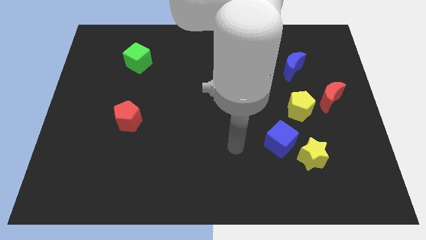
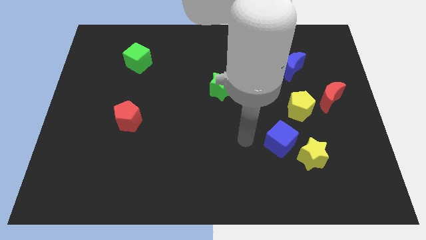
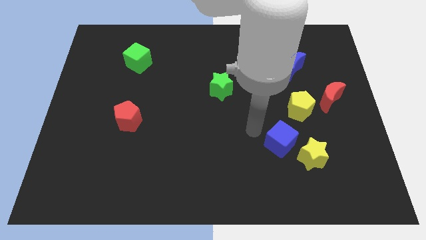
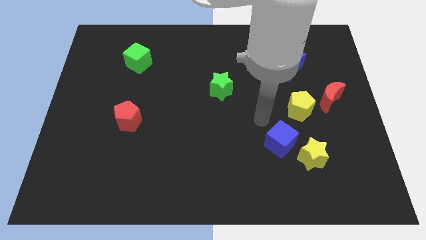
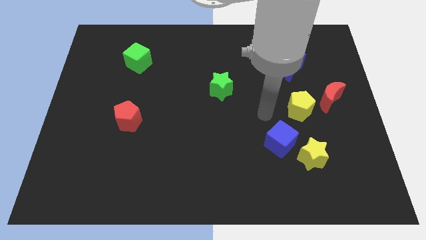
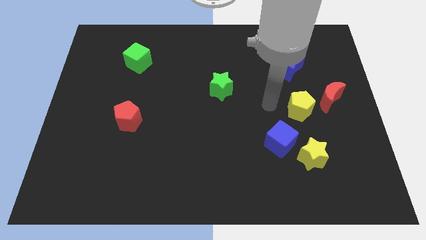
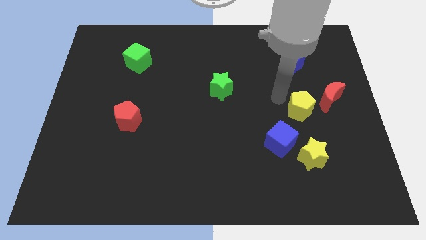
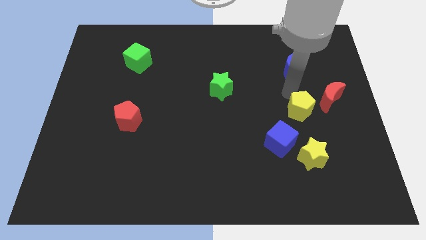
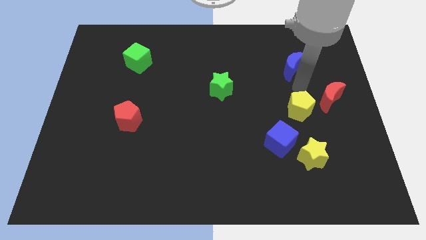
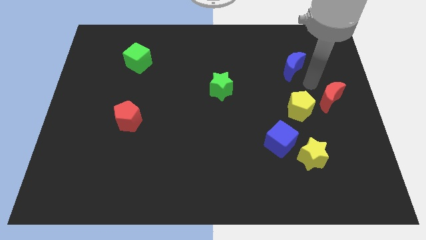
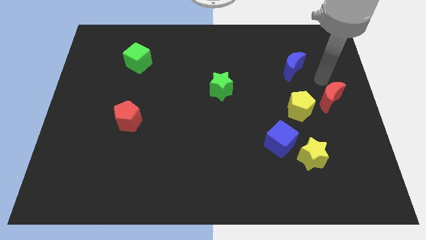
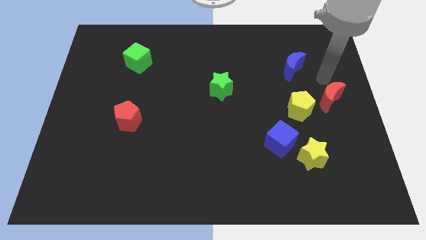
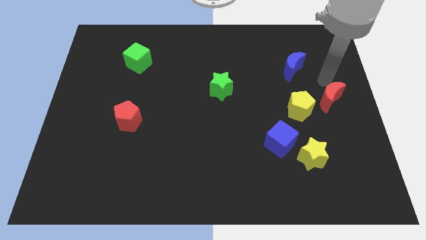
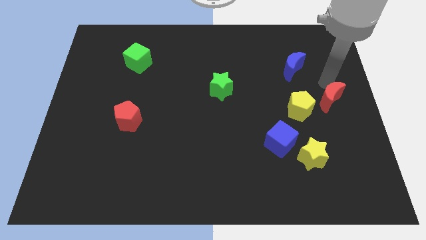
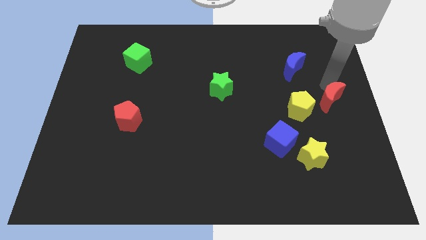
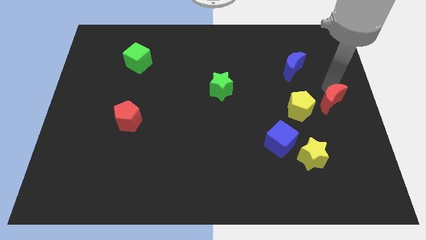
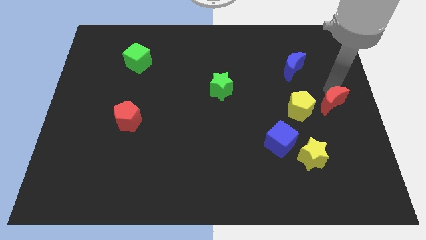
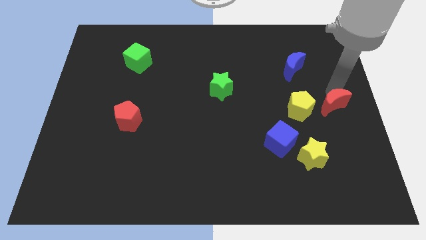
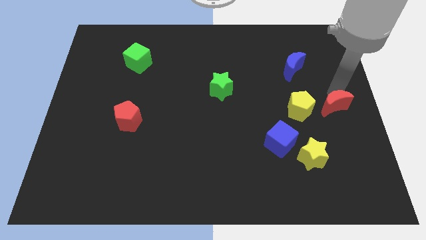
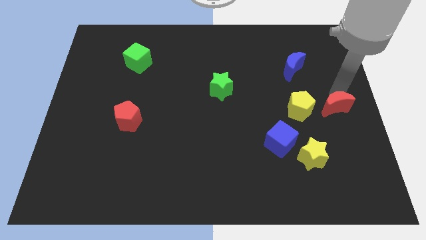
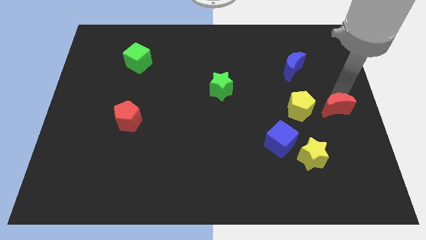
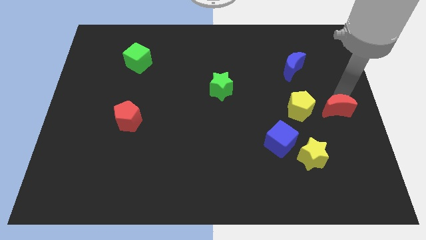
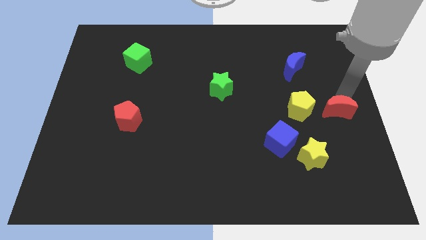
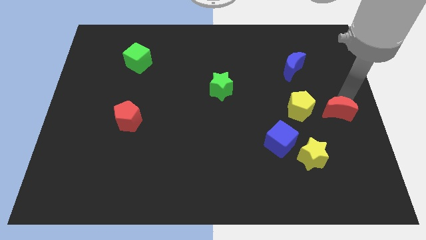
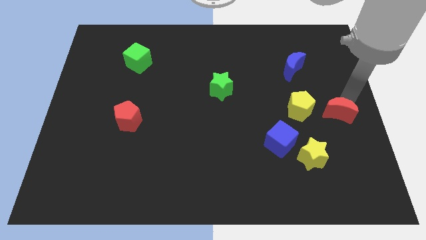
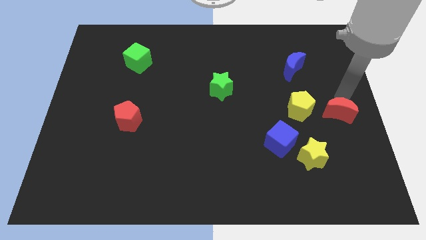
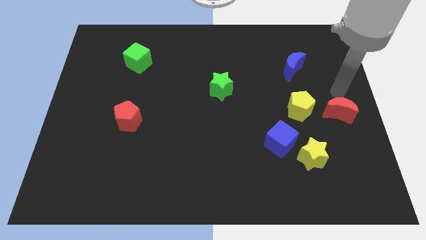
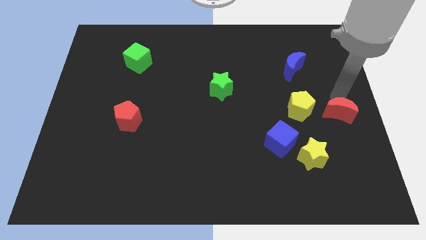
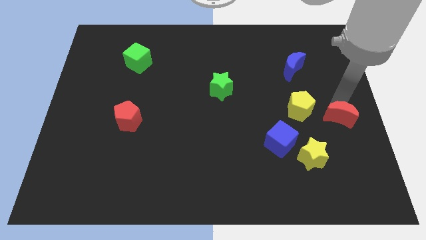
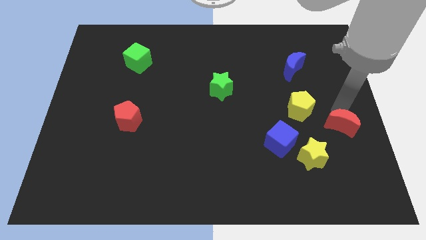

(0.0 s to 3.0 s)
slightly slide the red moon downwards

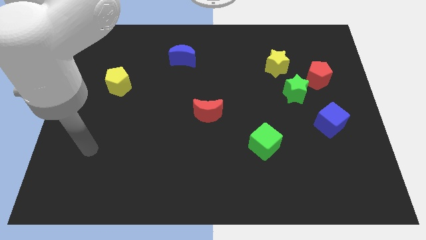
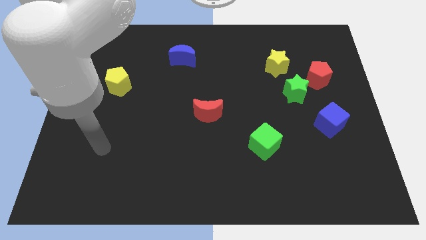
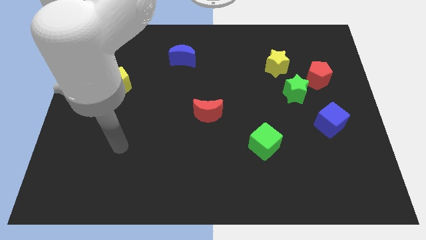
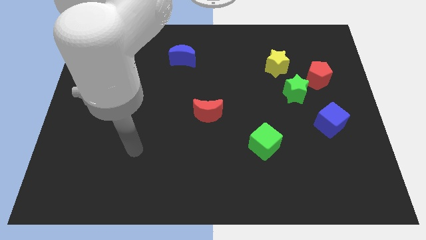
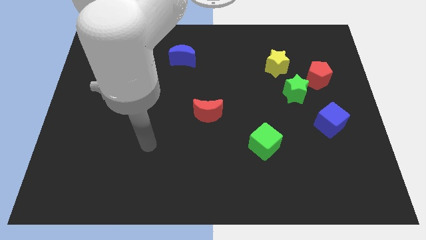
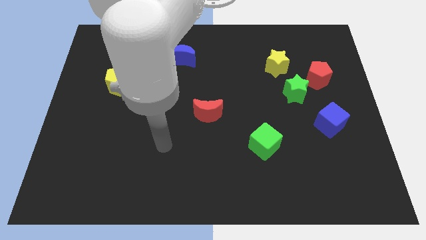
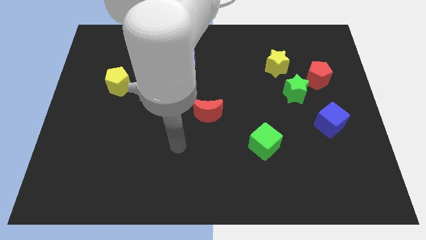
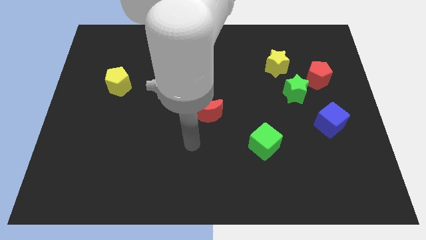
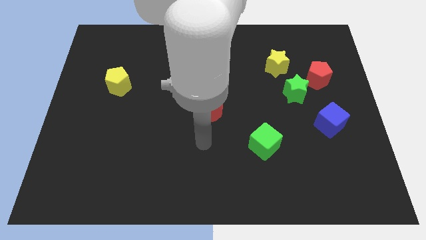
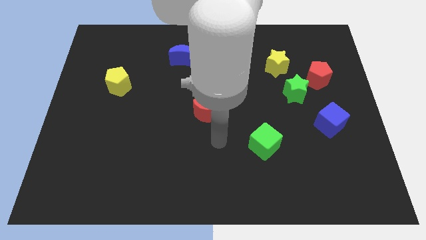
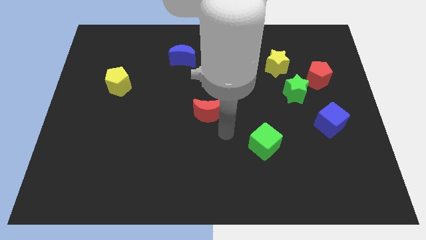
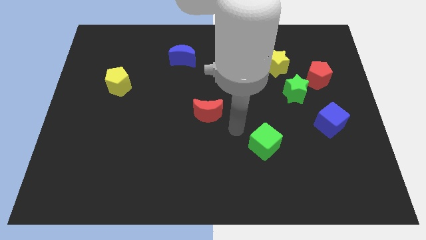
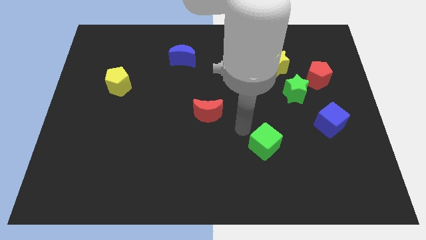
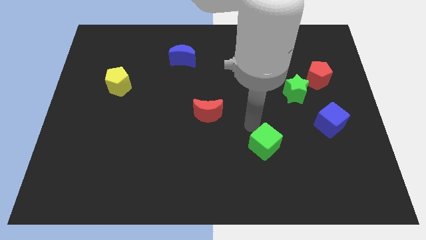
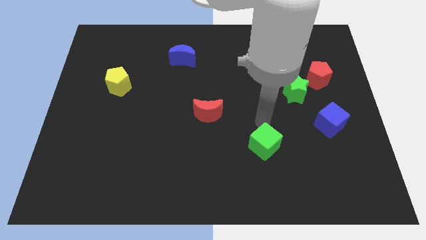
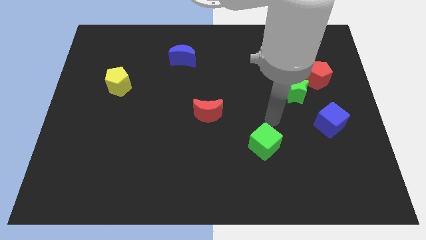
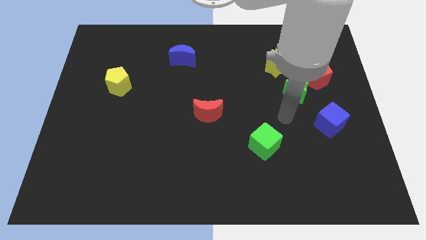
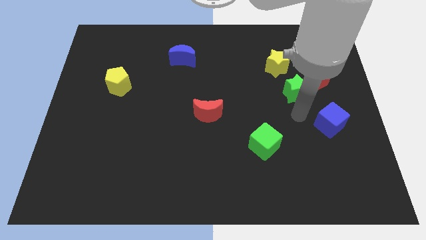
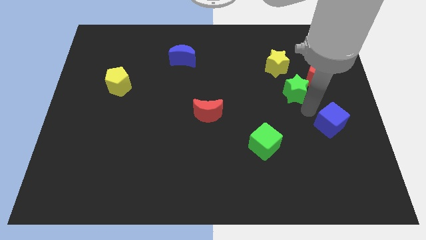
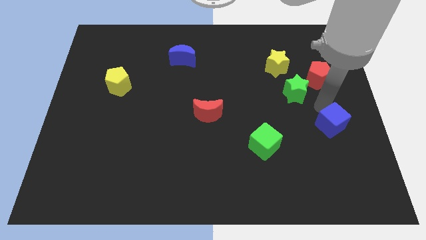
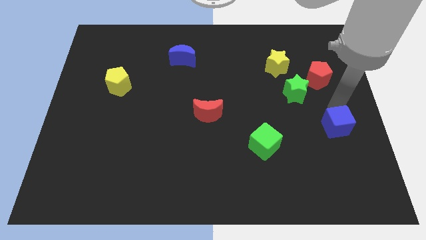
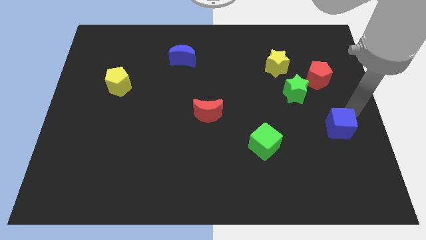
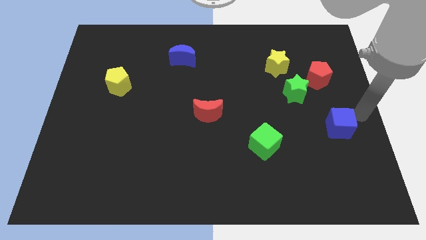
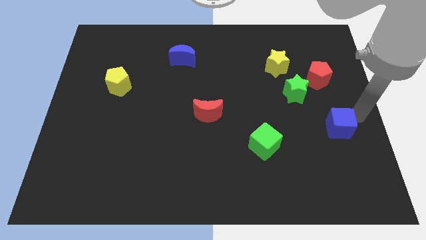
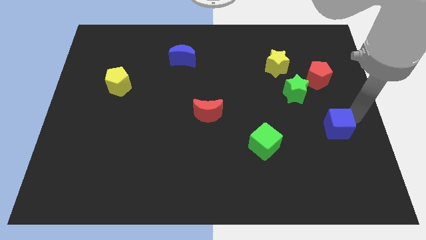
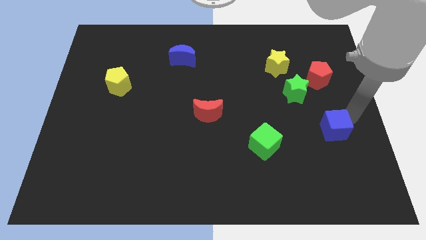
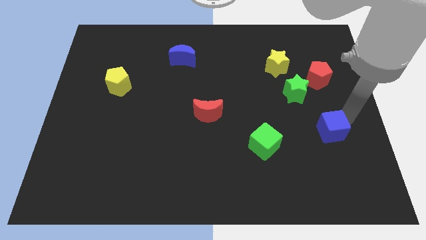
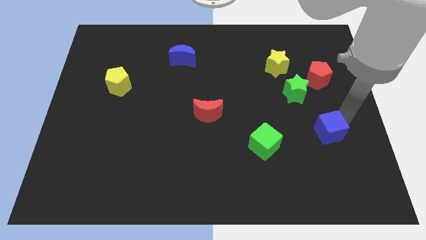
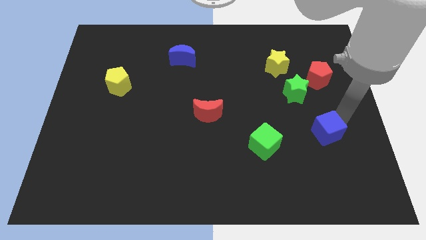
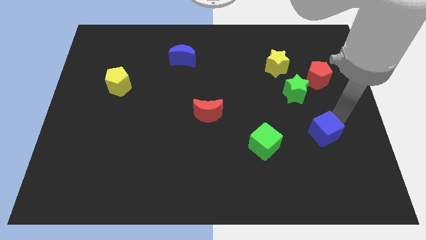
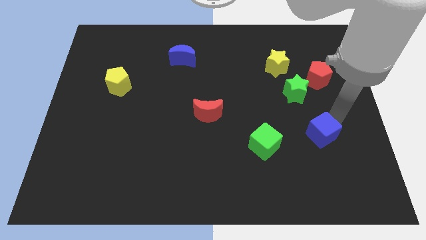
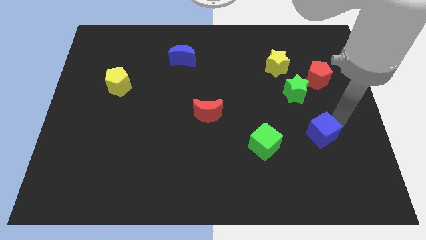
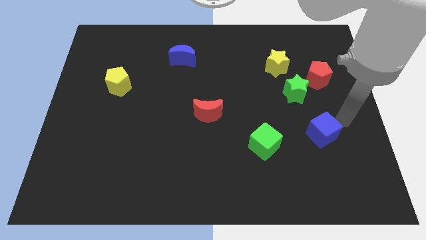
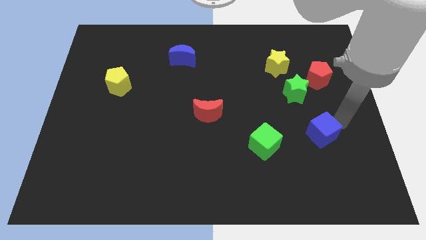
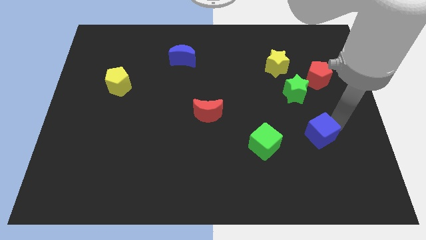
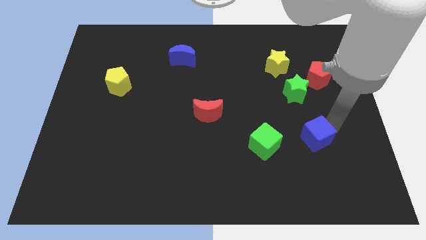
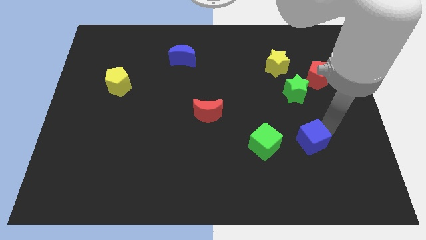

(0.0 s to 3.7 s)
push the blue cube slightly downwards and to the left diagonally

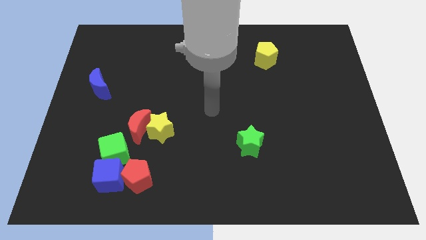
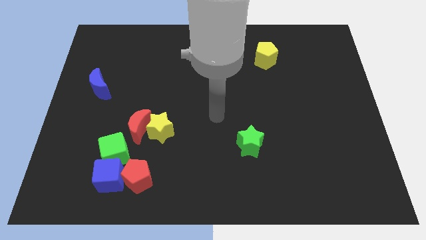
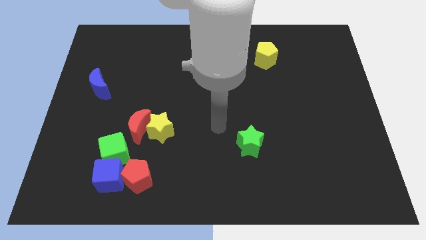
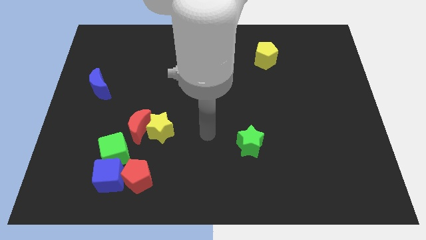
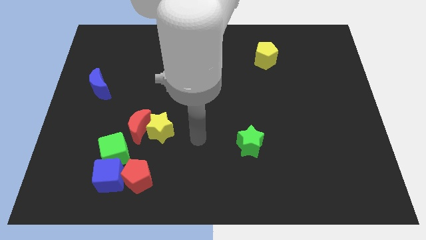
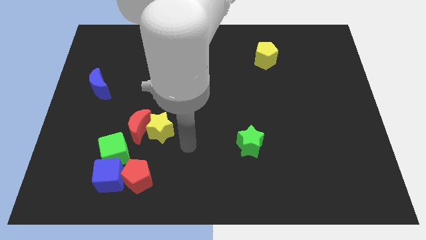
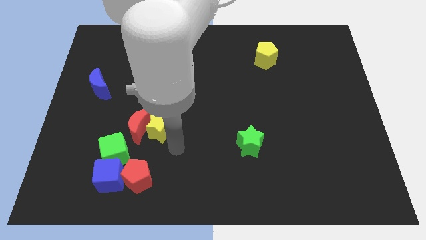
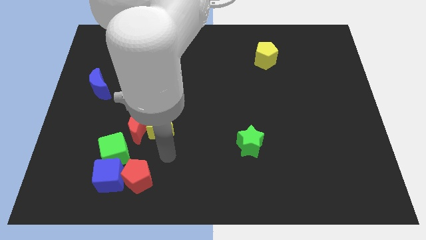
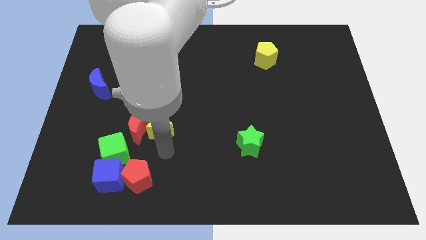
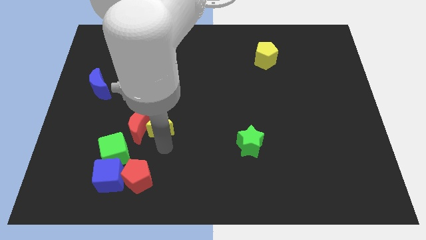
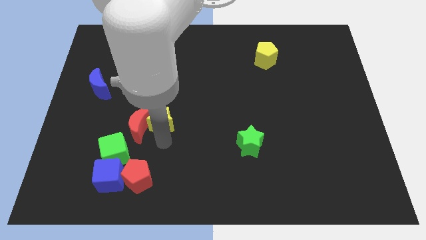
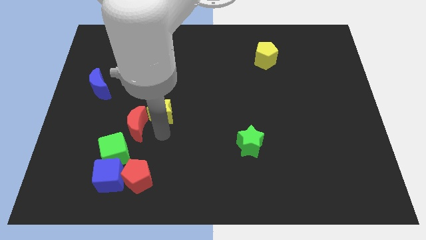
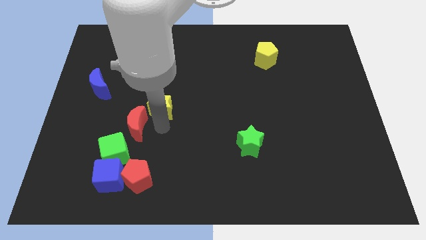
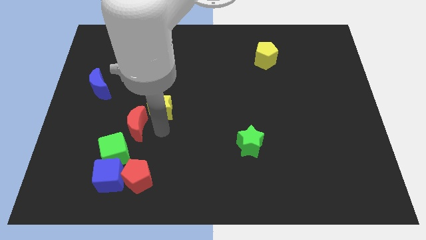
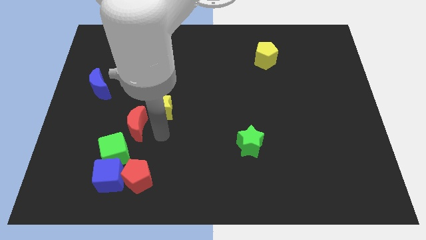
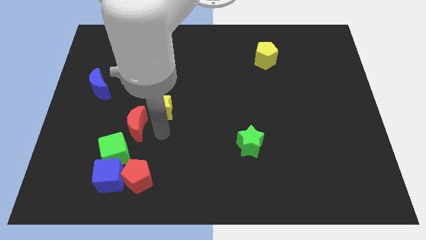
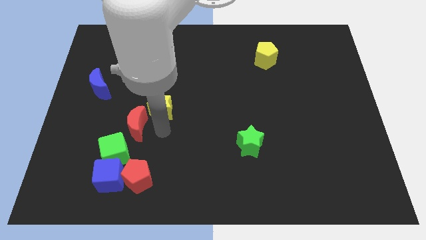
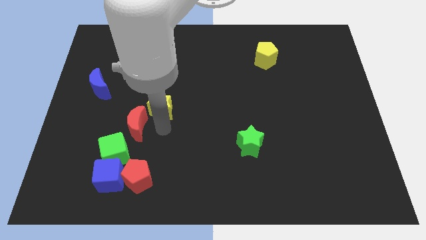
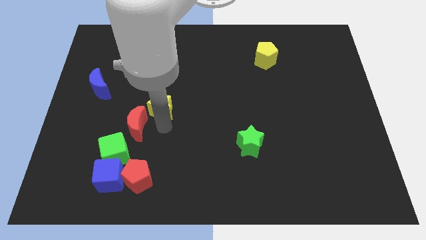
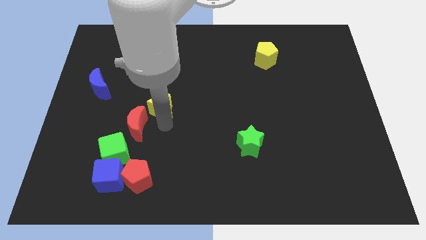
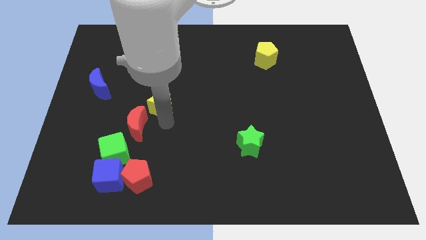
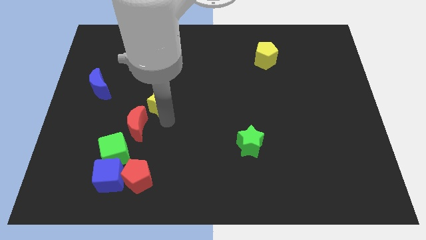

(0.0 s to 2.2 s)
slide the yellow star a bit up
